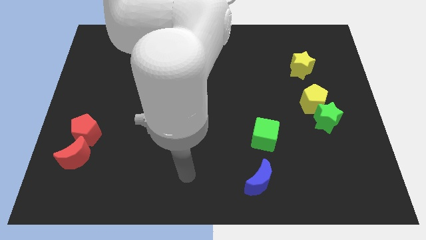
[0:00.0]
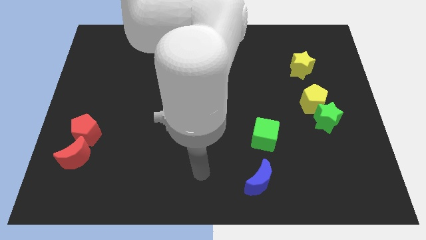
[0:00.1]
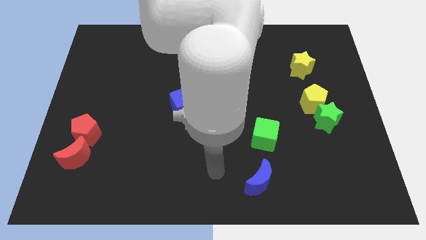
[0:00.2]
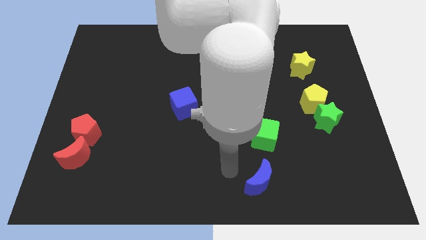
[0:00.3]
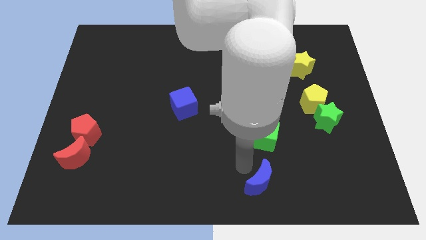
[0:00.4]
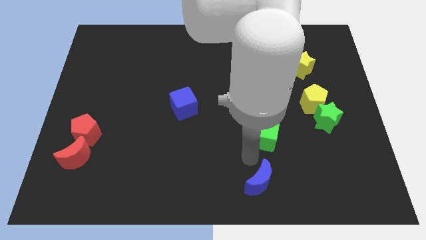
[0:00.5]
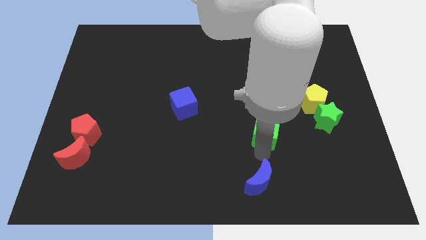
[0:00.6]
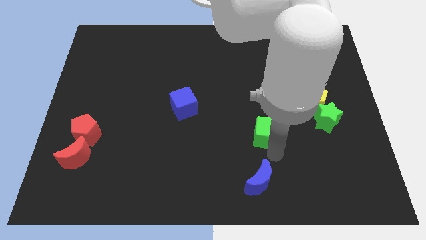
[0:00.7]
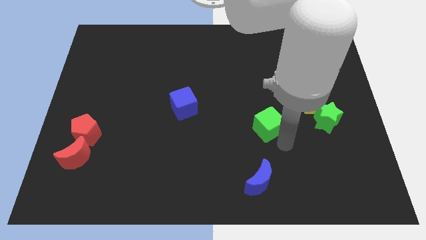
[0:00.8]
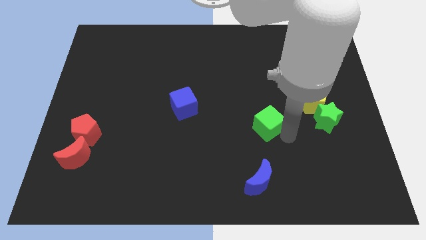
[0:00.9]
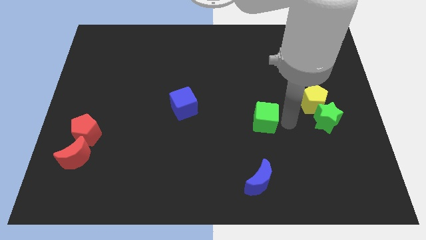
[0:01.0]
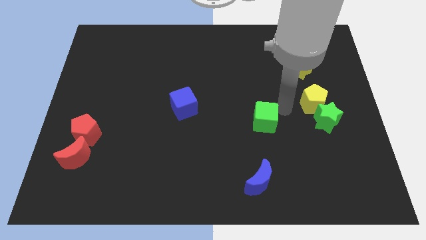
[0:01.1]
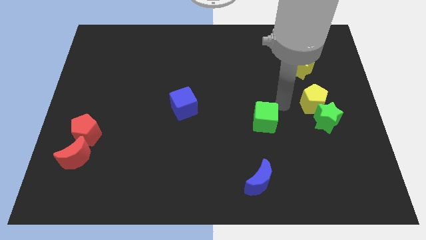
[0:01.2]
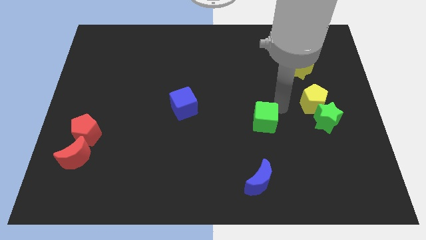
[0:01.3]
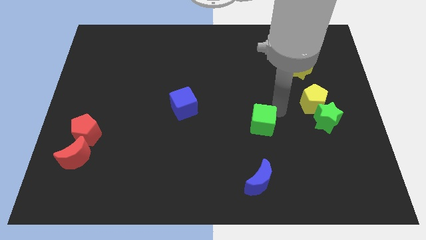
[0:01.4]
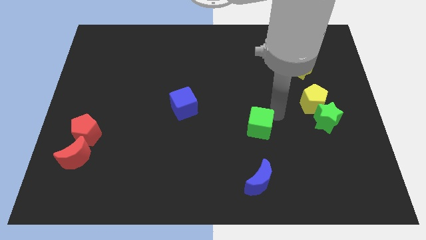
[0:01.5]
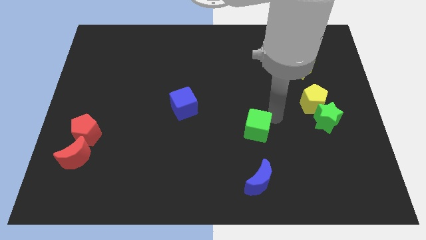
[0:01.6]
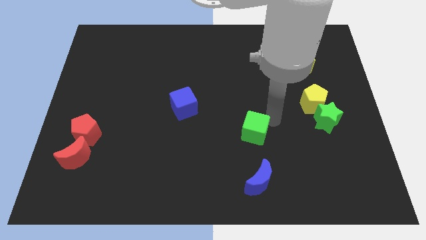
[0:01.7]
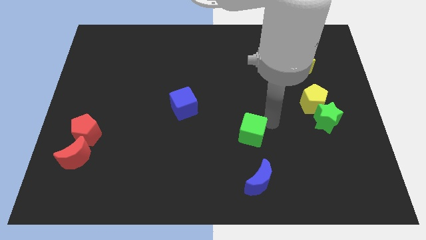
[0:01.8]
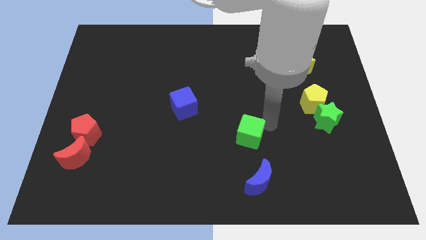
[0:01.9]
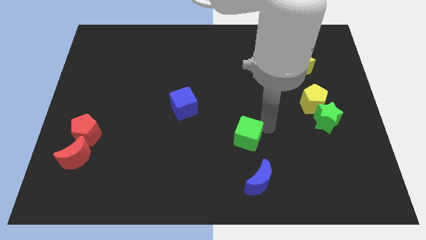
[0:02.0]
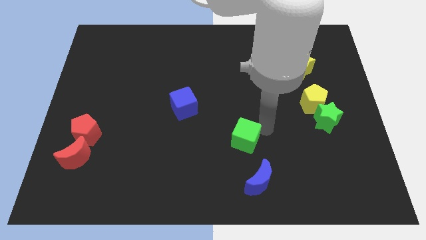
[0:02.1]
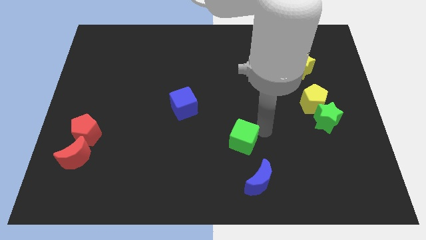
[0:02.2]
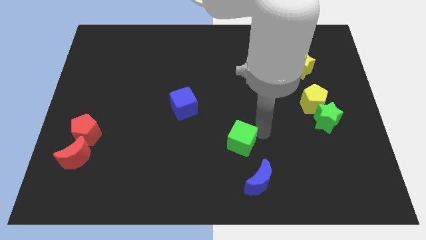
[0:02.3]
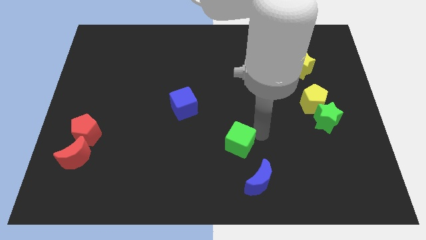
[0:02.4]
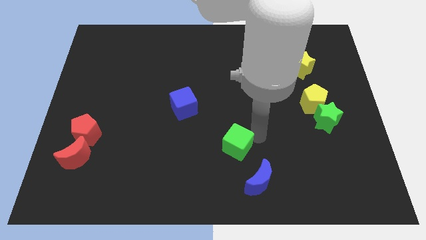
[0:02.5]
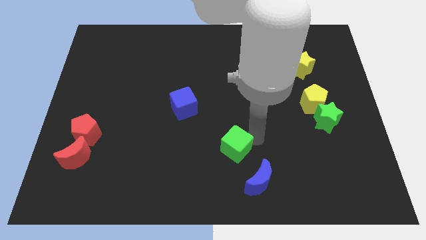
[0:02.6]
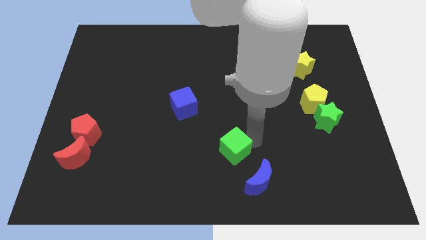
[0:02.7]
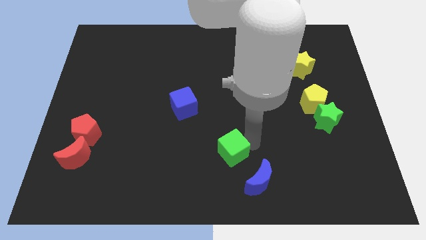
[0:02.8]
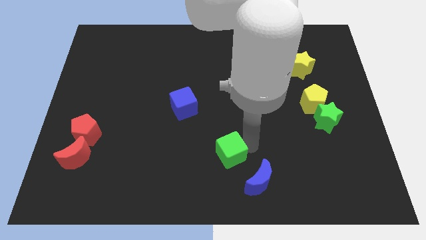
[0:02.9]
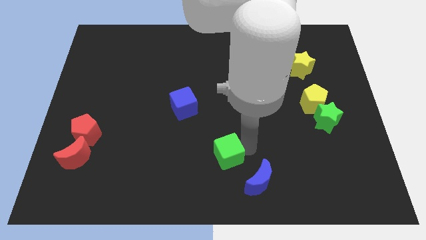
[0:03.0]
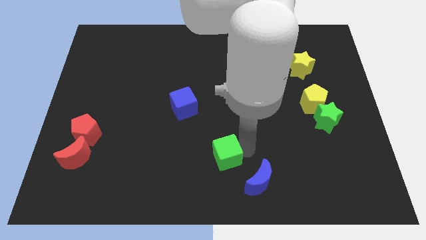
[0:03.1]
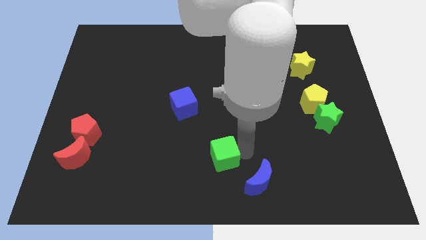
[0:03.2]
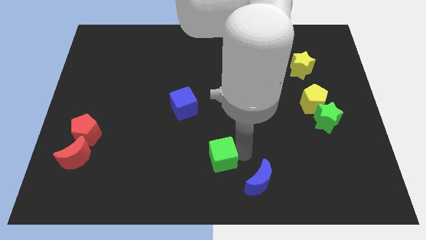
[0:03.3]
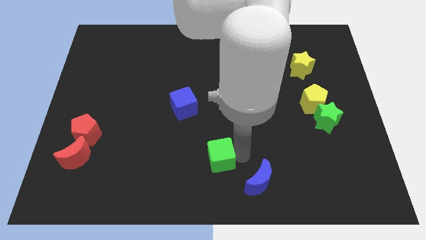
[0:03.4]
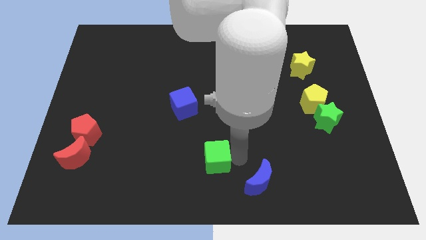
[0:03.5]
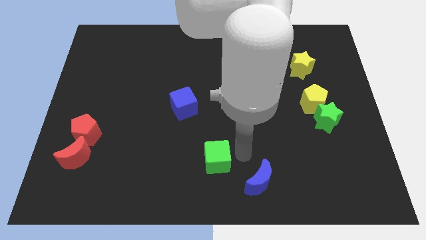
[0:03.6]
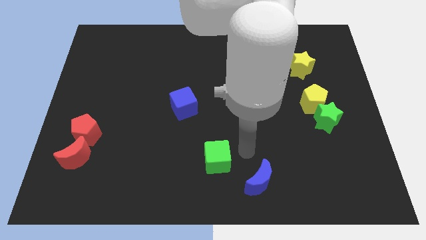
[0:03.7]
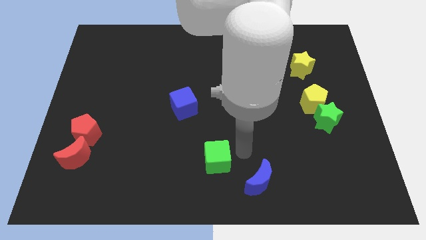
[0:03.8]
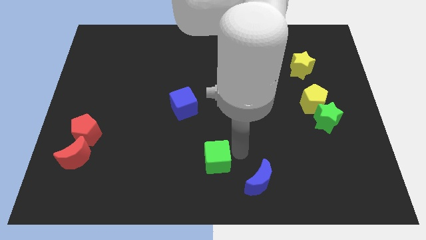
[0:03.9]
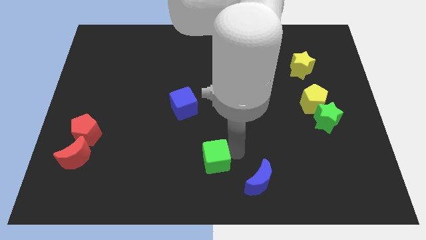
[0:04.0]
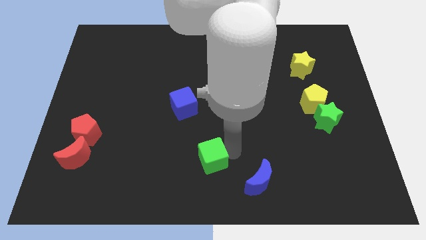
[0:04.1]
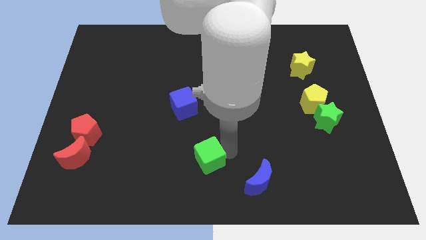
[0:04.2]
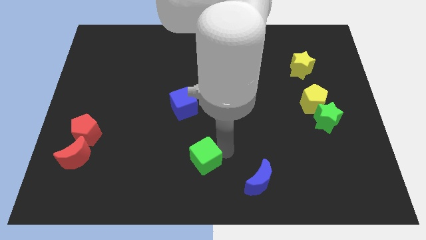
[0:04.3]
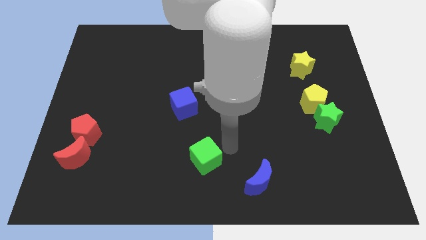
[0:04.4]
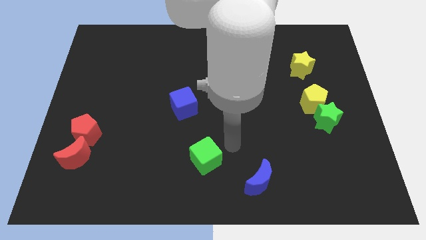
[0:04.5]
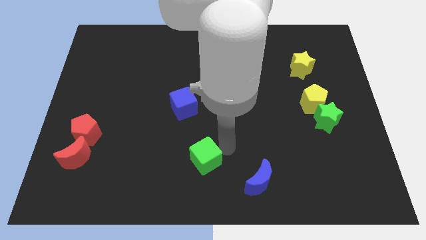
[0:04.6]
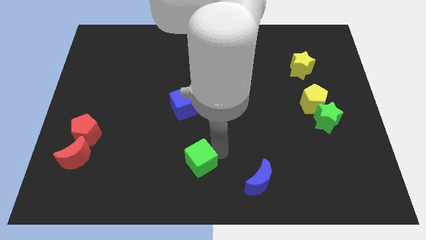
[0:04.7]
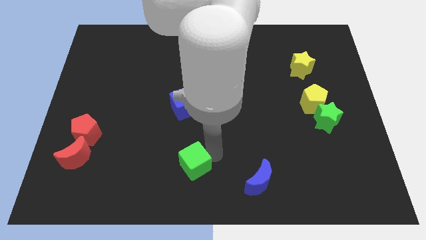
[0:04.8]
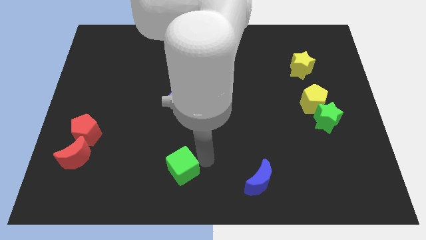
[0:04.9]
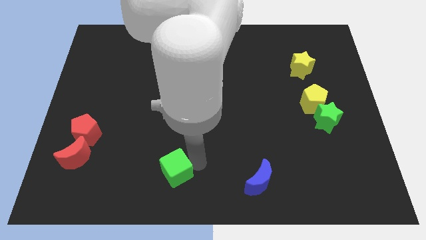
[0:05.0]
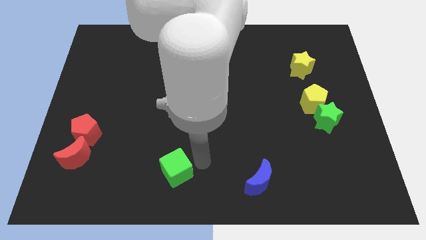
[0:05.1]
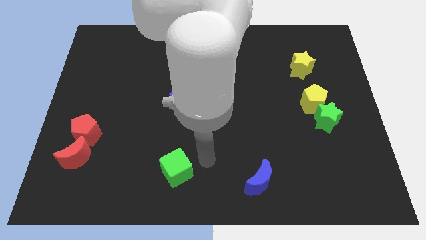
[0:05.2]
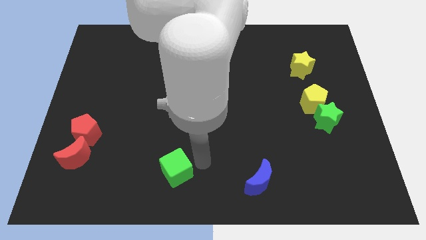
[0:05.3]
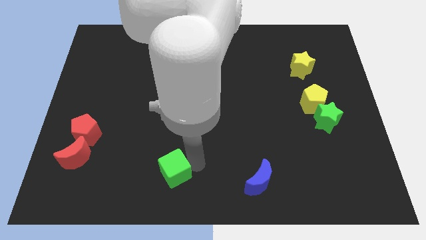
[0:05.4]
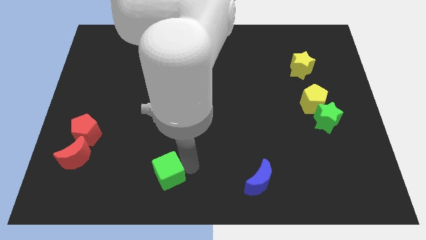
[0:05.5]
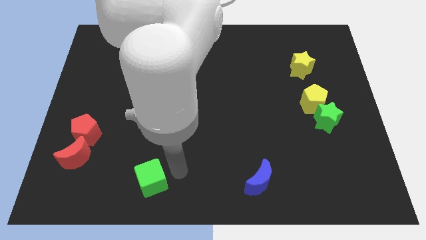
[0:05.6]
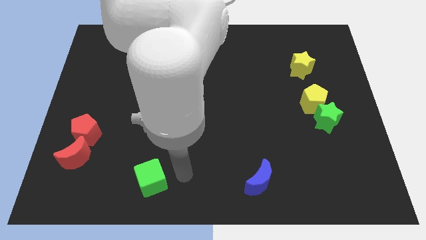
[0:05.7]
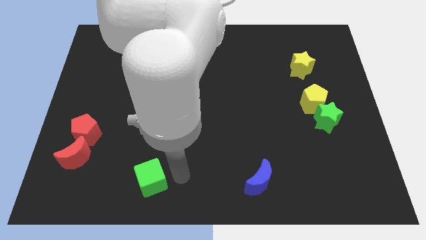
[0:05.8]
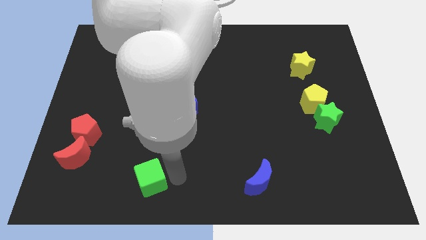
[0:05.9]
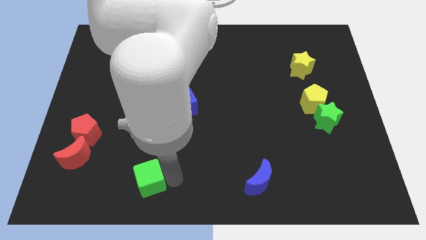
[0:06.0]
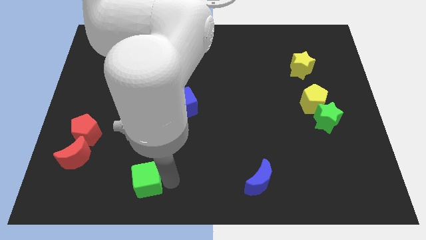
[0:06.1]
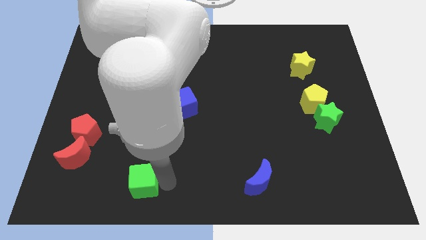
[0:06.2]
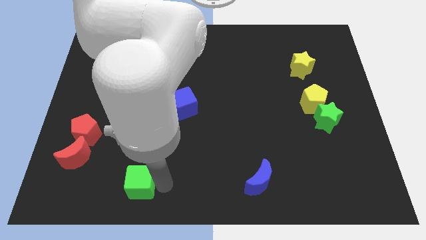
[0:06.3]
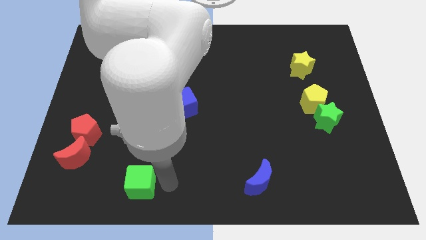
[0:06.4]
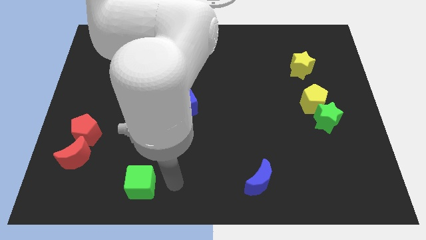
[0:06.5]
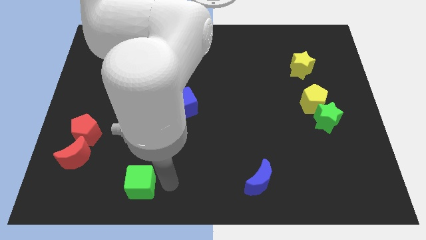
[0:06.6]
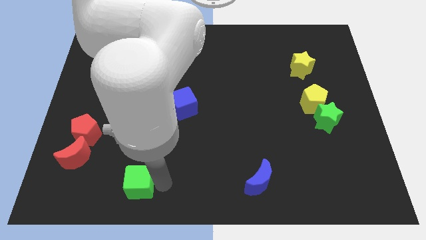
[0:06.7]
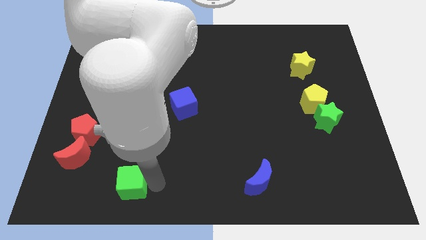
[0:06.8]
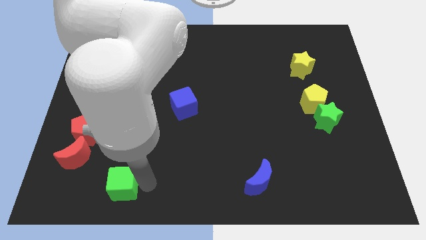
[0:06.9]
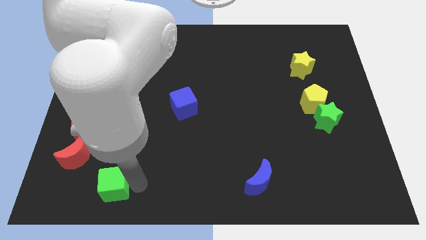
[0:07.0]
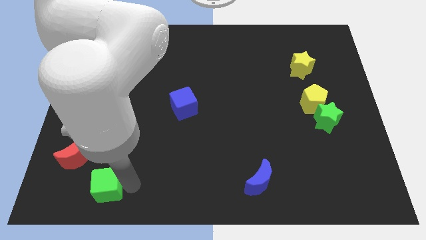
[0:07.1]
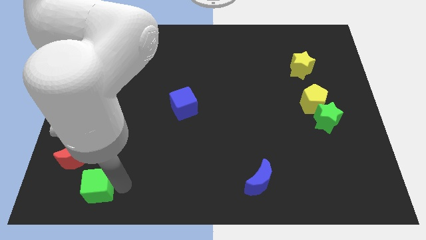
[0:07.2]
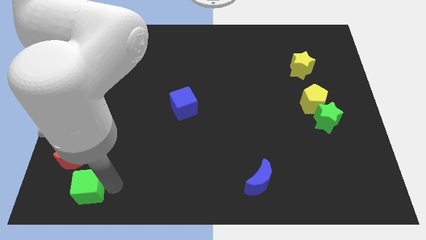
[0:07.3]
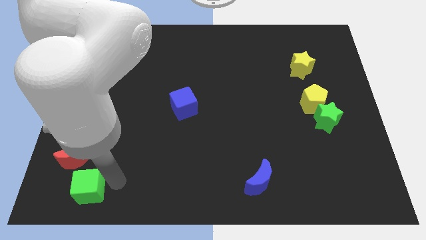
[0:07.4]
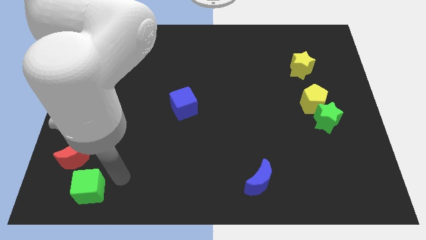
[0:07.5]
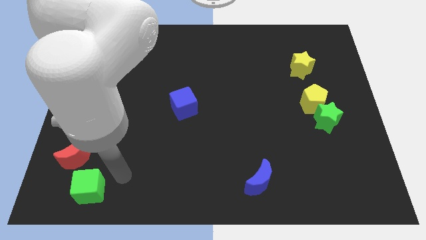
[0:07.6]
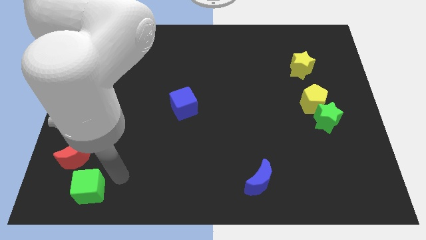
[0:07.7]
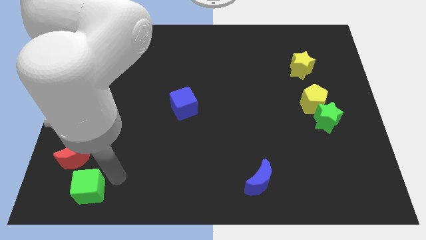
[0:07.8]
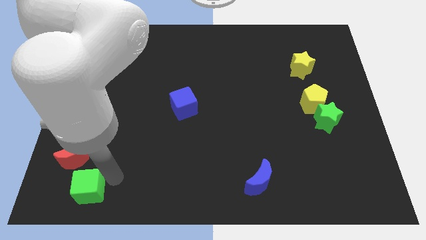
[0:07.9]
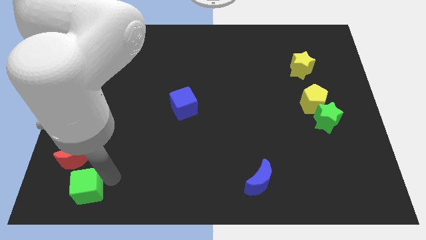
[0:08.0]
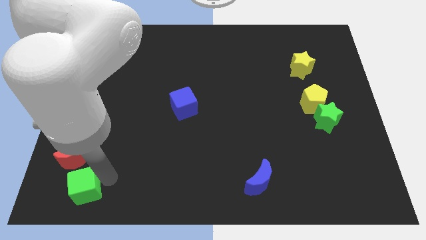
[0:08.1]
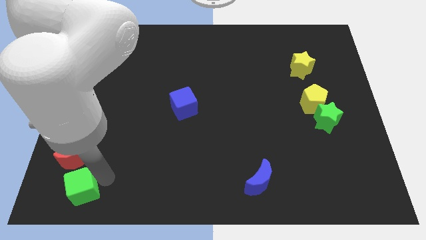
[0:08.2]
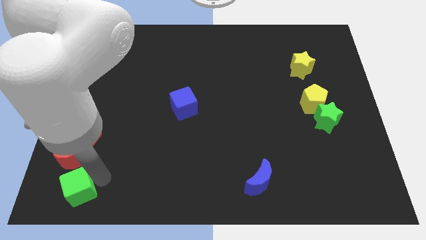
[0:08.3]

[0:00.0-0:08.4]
push the green cube to the bottom left
